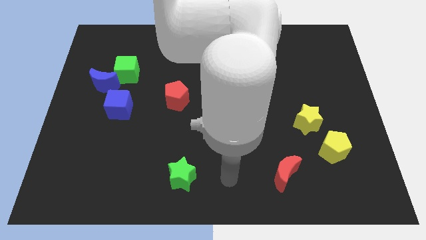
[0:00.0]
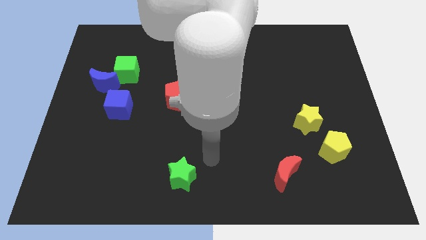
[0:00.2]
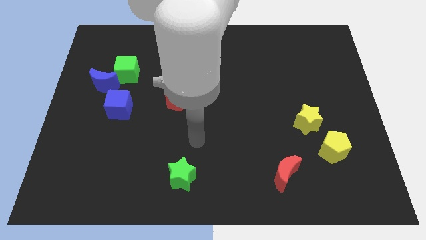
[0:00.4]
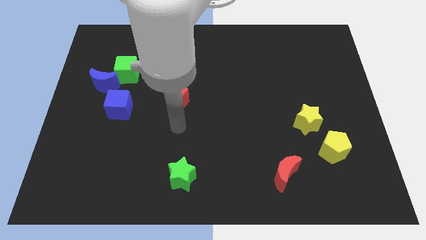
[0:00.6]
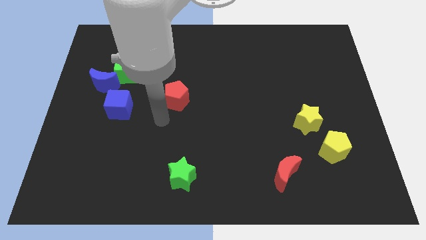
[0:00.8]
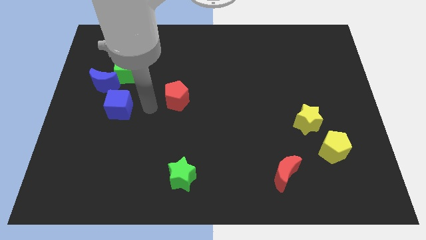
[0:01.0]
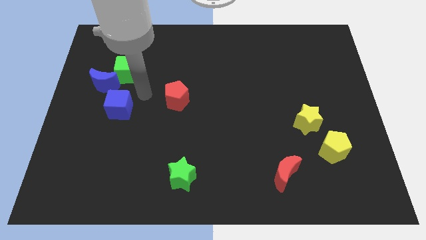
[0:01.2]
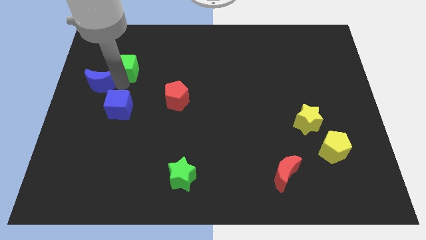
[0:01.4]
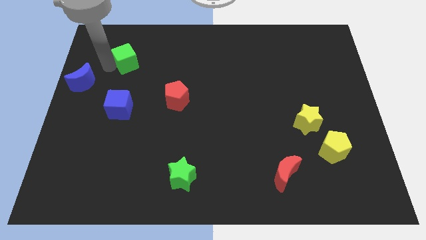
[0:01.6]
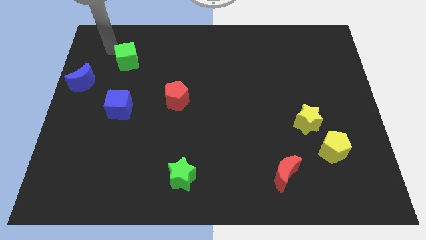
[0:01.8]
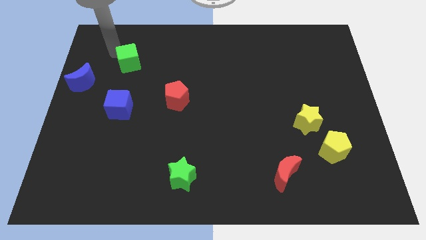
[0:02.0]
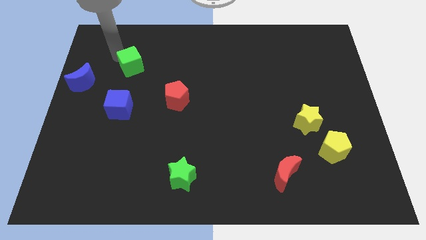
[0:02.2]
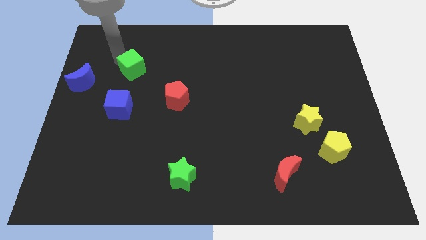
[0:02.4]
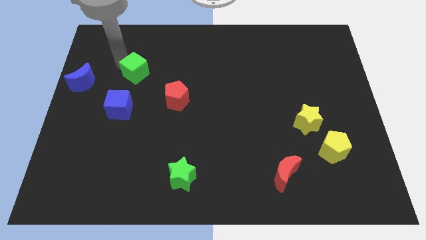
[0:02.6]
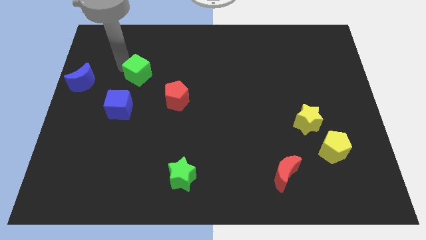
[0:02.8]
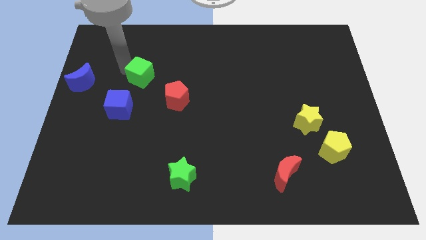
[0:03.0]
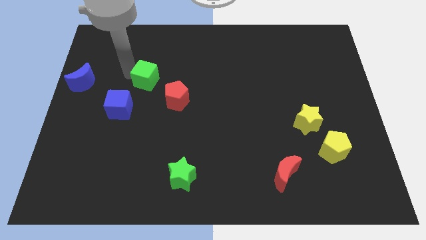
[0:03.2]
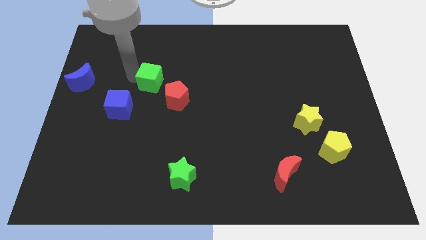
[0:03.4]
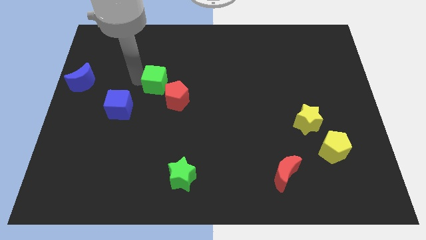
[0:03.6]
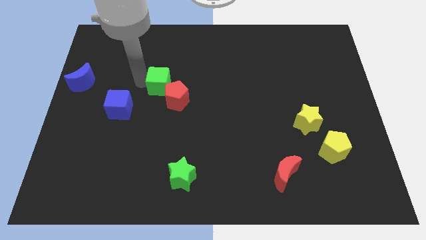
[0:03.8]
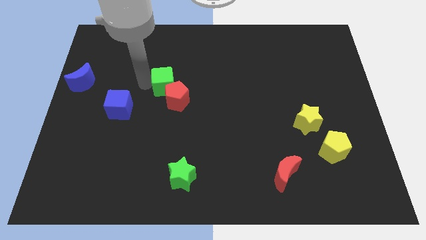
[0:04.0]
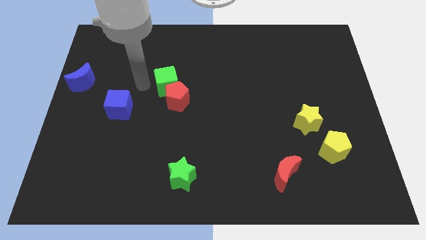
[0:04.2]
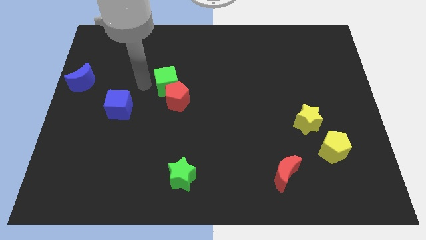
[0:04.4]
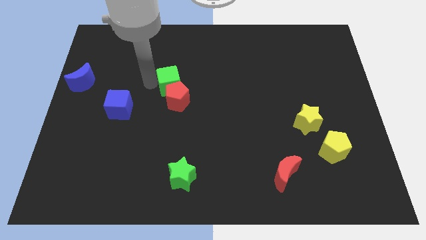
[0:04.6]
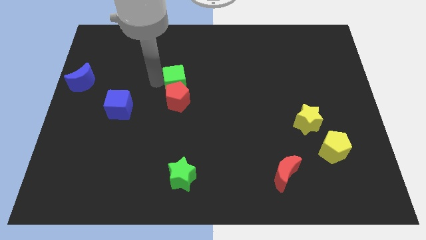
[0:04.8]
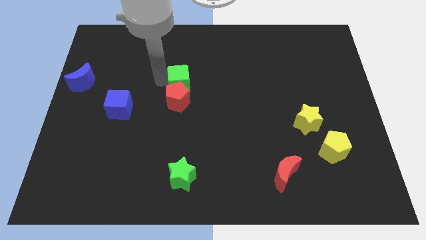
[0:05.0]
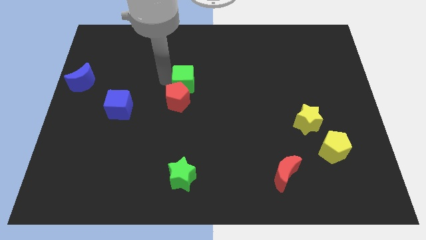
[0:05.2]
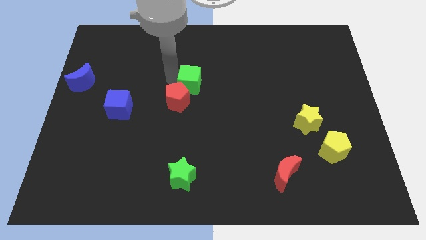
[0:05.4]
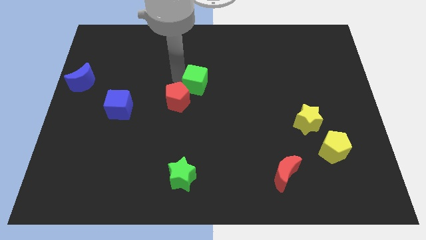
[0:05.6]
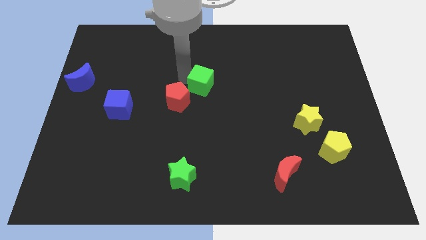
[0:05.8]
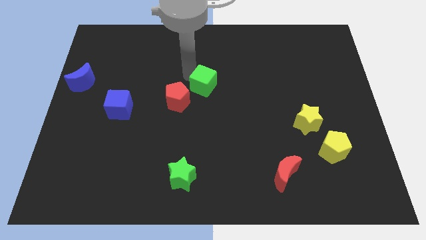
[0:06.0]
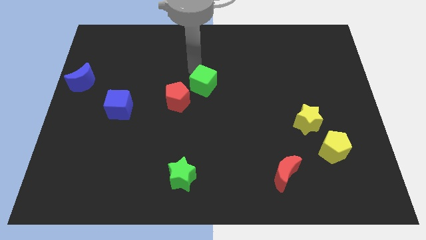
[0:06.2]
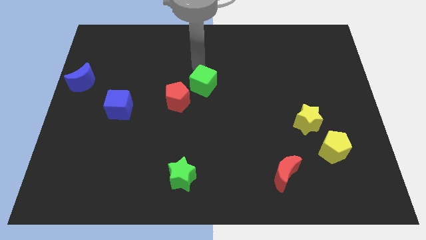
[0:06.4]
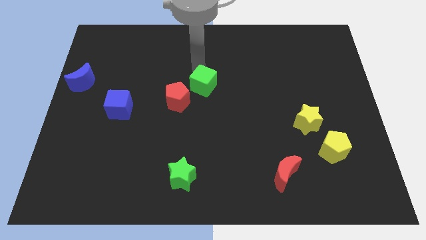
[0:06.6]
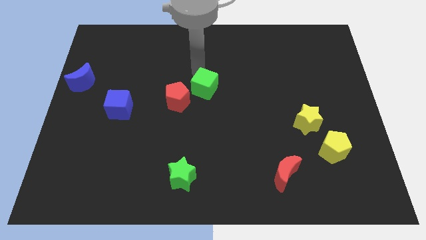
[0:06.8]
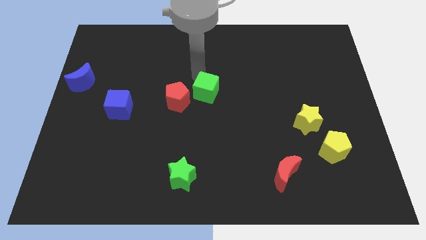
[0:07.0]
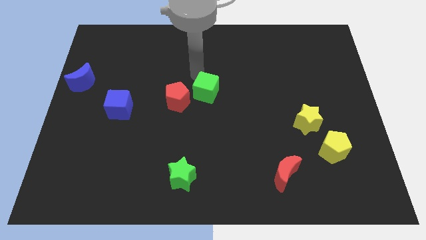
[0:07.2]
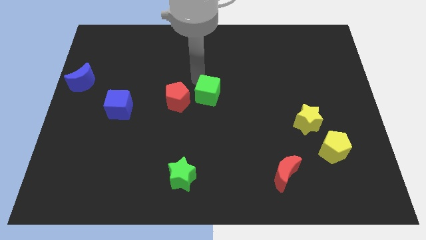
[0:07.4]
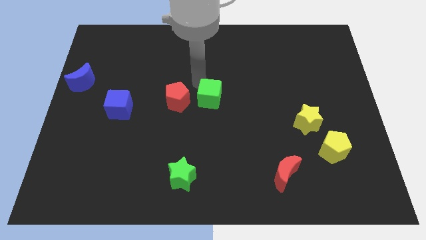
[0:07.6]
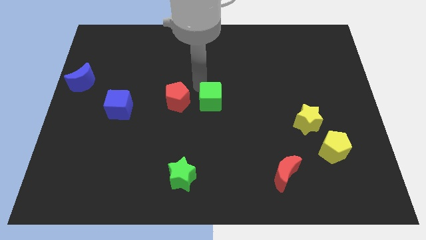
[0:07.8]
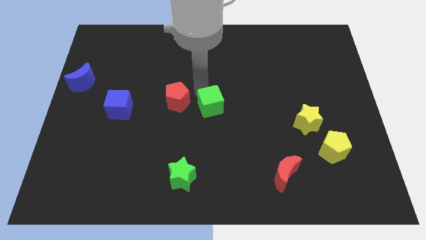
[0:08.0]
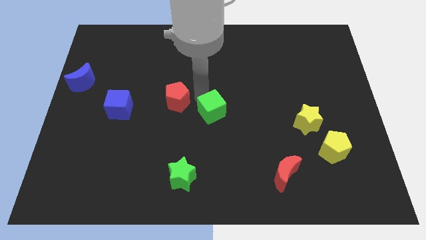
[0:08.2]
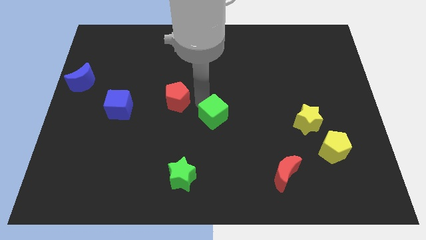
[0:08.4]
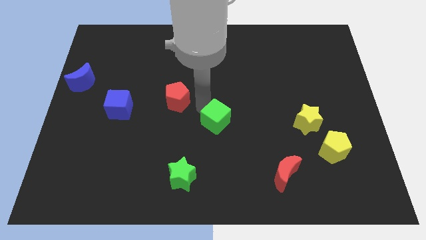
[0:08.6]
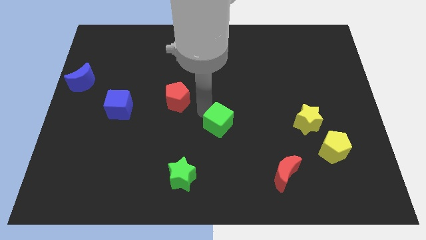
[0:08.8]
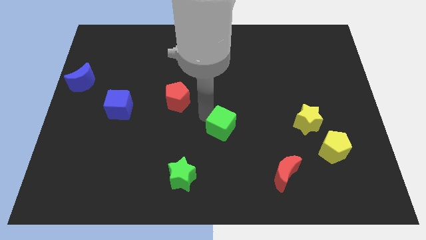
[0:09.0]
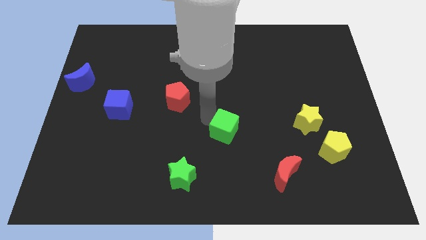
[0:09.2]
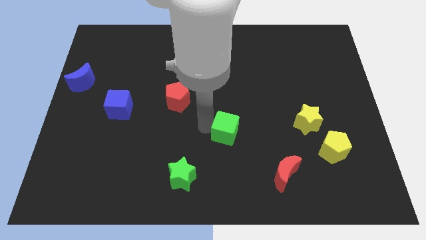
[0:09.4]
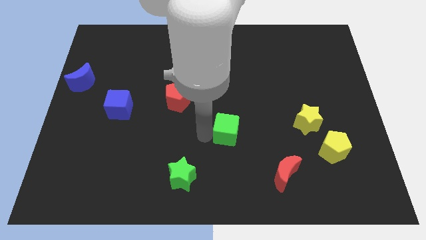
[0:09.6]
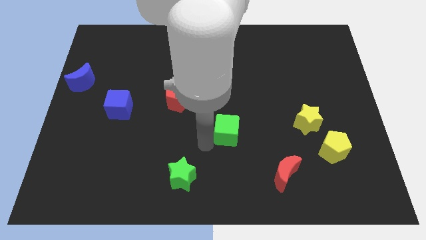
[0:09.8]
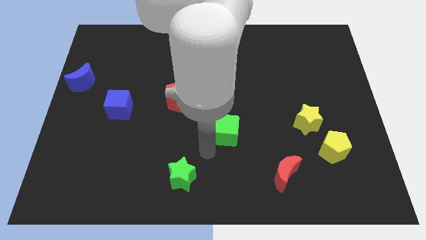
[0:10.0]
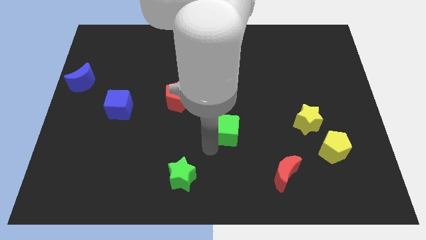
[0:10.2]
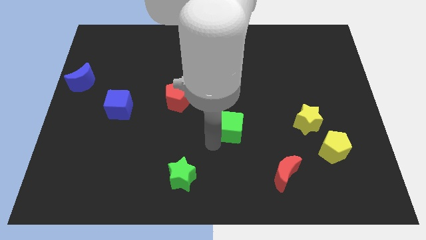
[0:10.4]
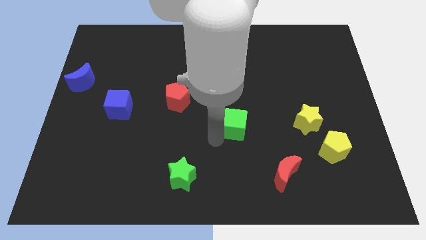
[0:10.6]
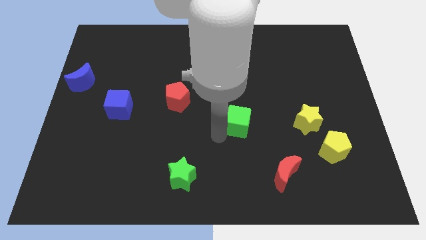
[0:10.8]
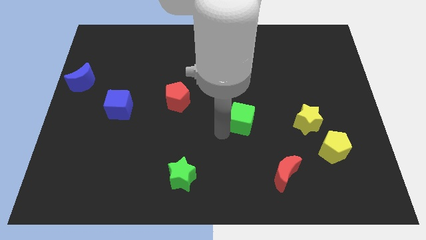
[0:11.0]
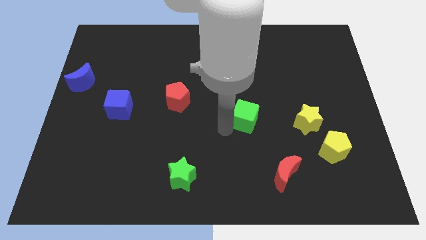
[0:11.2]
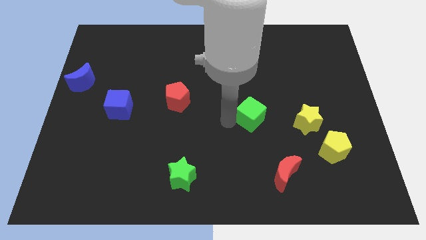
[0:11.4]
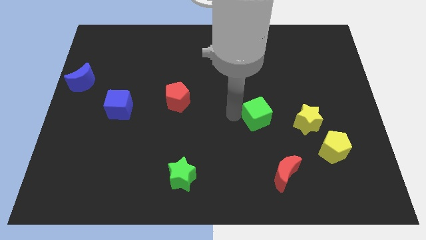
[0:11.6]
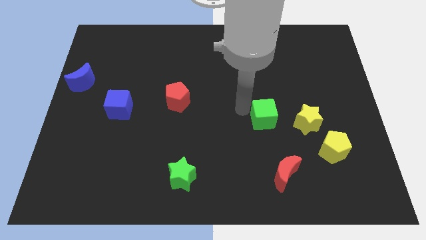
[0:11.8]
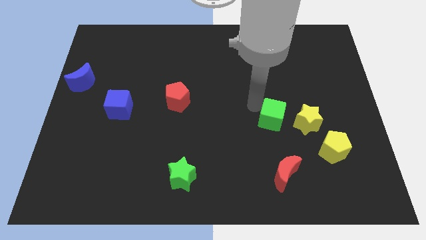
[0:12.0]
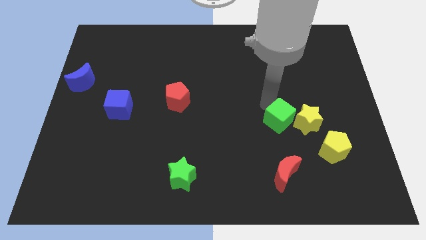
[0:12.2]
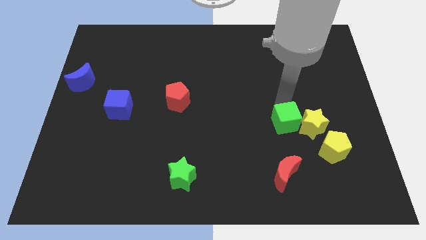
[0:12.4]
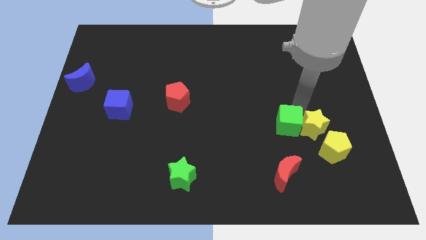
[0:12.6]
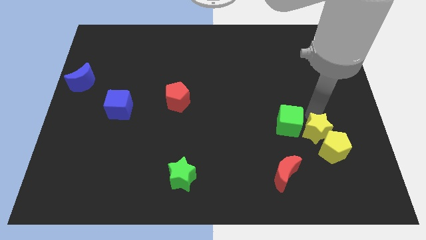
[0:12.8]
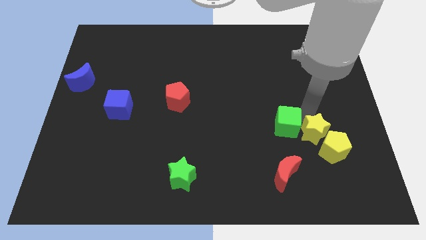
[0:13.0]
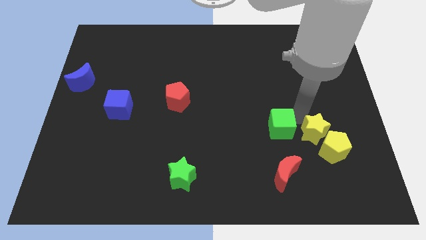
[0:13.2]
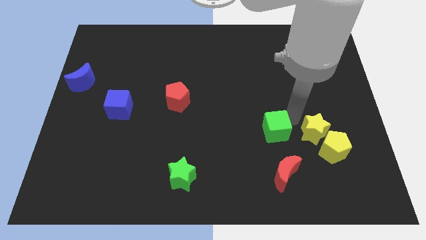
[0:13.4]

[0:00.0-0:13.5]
slide the green cube just left of the yellow pentagon

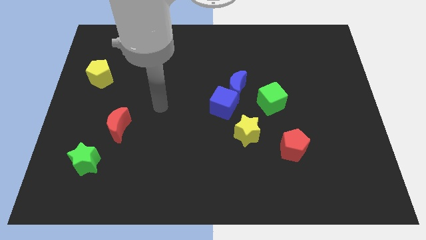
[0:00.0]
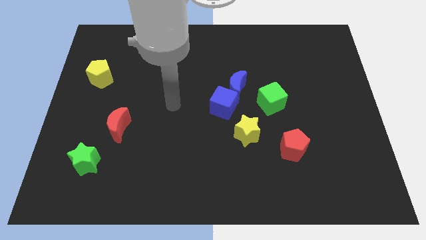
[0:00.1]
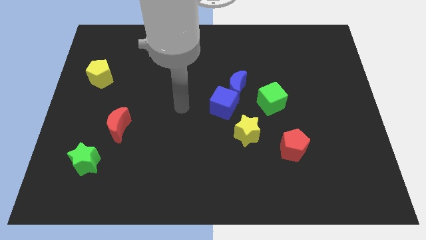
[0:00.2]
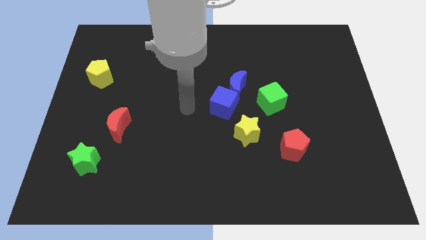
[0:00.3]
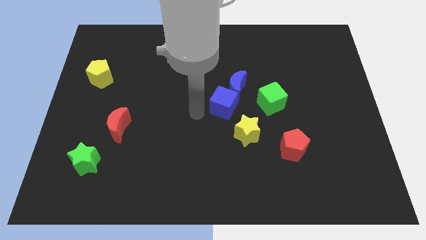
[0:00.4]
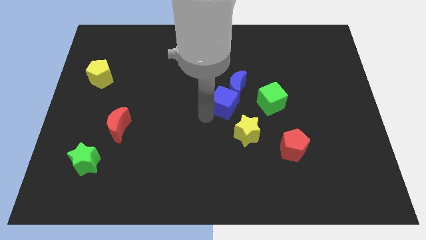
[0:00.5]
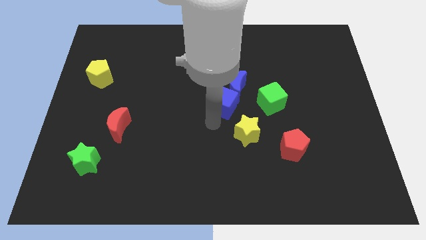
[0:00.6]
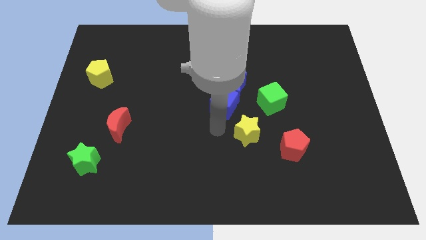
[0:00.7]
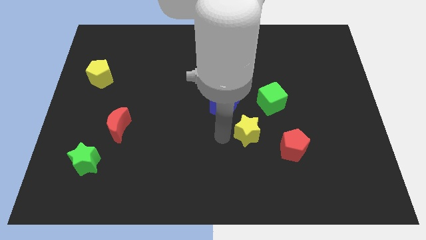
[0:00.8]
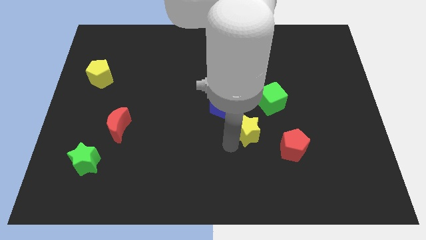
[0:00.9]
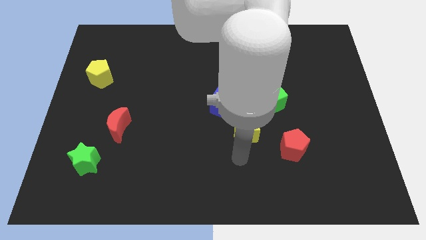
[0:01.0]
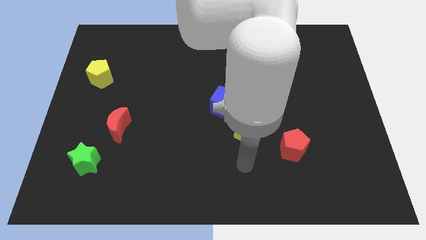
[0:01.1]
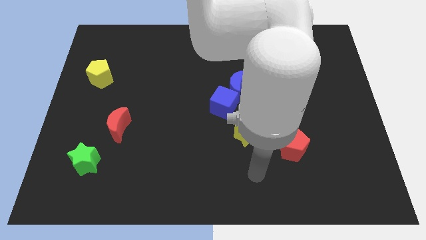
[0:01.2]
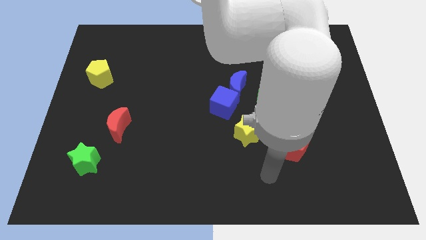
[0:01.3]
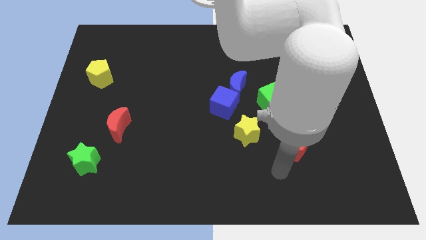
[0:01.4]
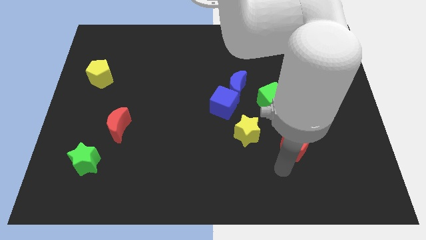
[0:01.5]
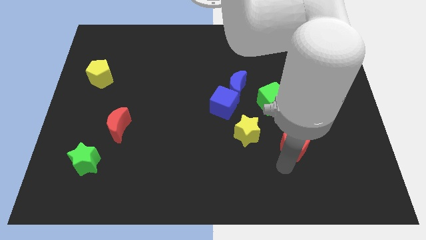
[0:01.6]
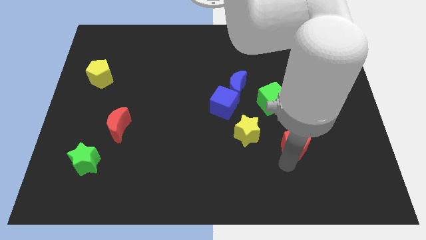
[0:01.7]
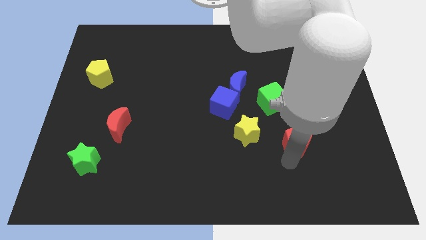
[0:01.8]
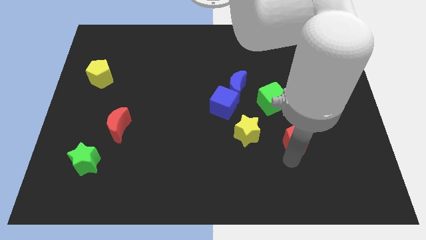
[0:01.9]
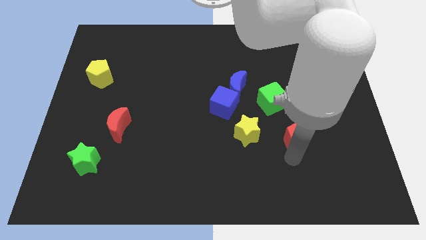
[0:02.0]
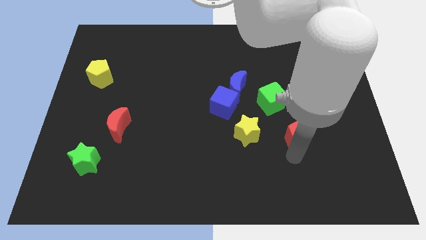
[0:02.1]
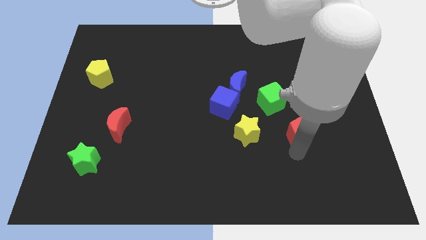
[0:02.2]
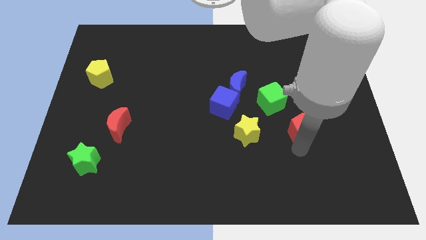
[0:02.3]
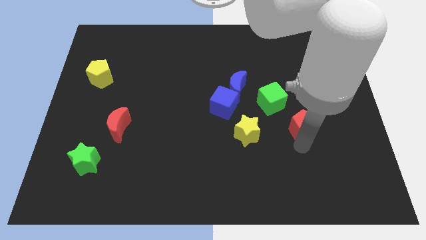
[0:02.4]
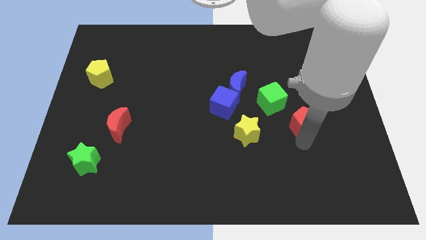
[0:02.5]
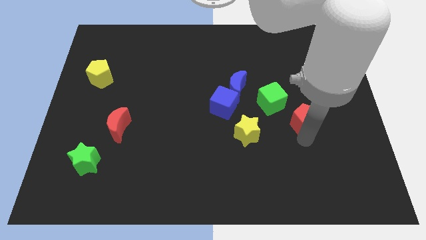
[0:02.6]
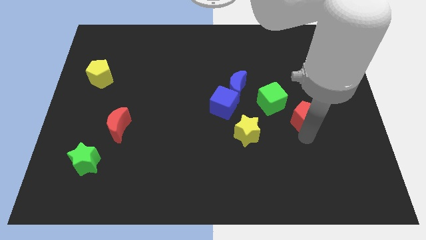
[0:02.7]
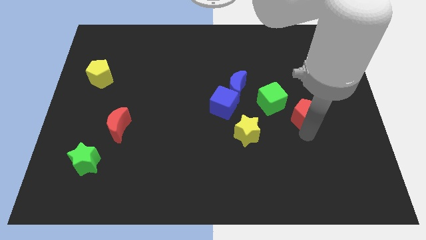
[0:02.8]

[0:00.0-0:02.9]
put the red pentagon to the right side of the green cube
